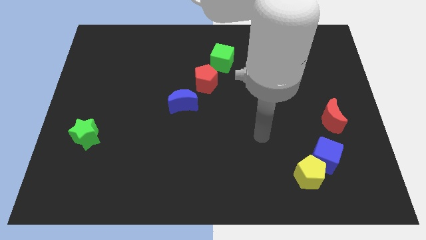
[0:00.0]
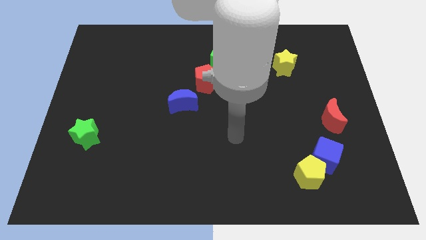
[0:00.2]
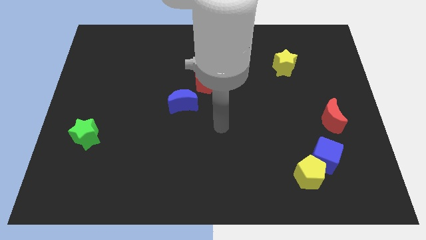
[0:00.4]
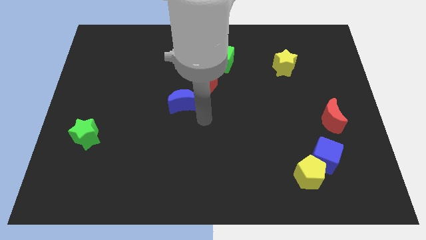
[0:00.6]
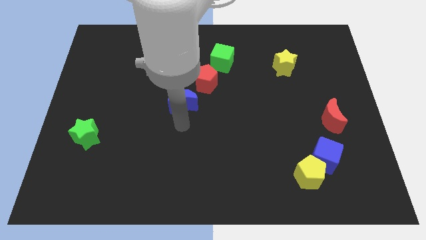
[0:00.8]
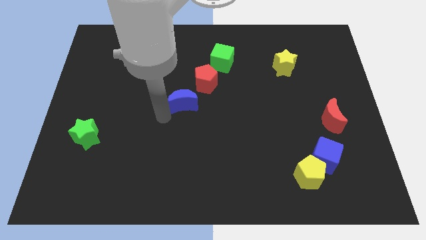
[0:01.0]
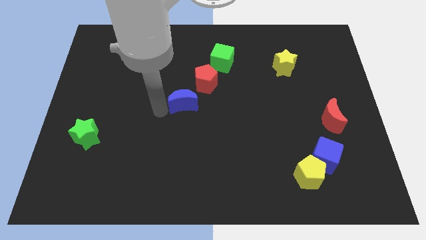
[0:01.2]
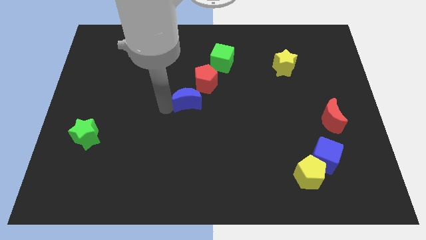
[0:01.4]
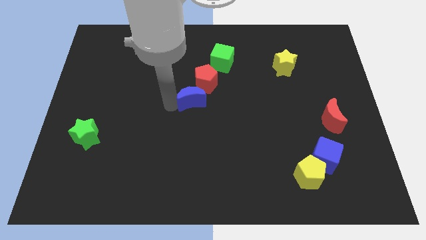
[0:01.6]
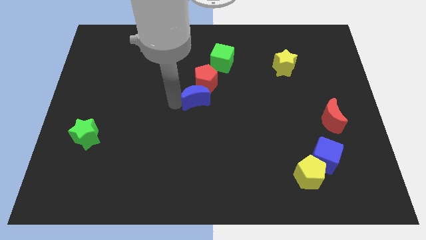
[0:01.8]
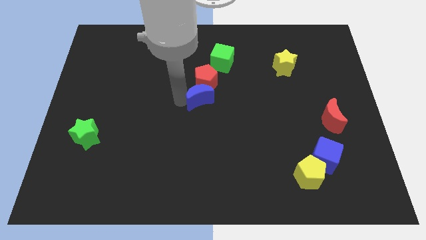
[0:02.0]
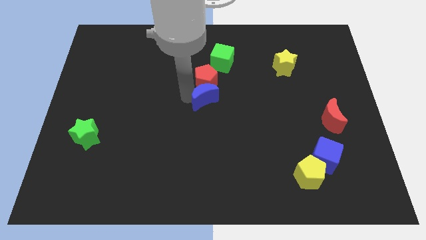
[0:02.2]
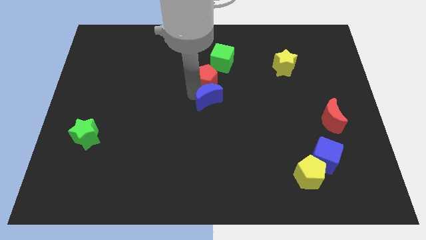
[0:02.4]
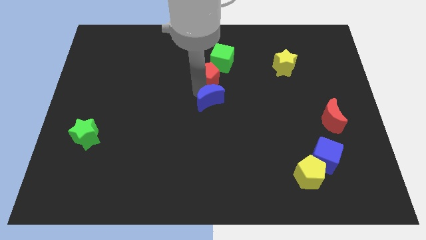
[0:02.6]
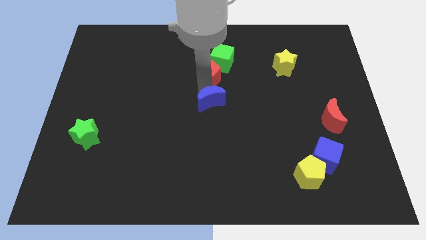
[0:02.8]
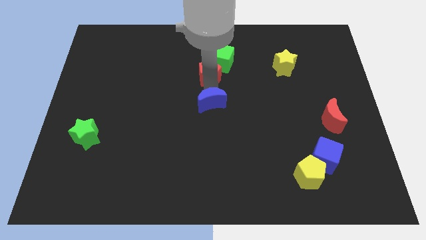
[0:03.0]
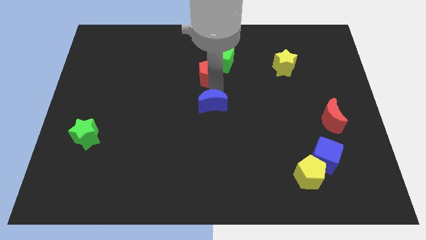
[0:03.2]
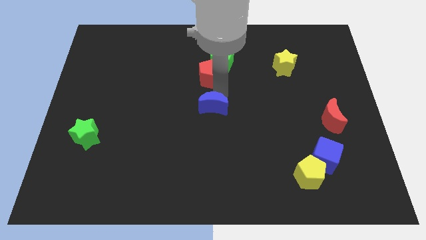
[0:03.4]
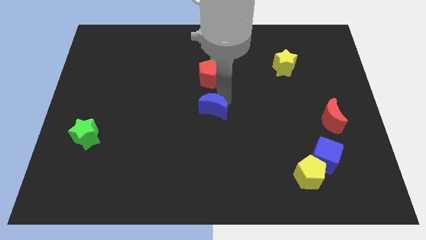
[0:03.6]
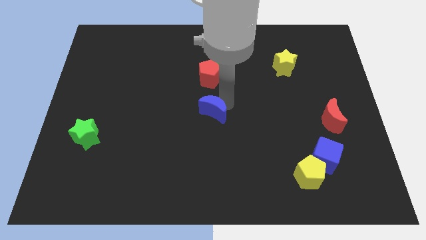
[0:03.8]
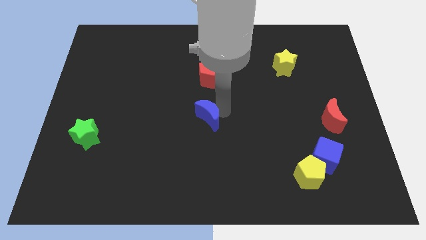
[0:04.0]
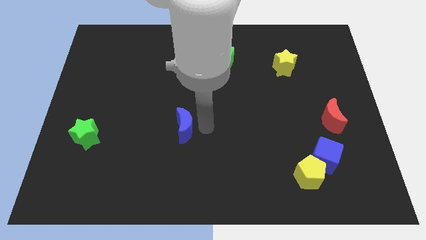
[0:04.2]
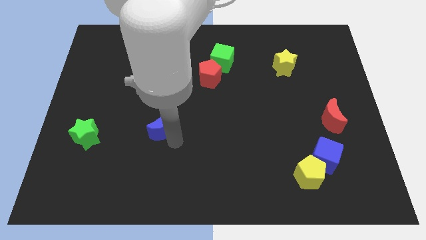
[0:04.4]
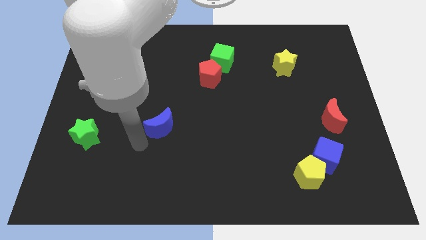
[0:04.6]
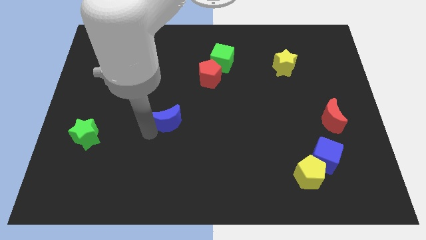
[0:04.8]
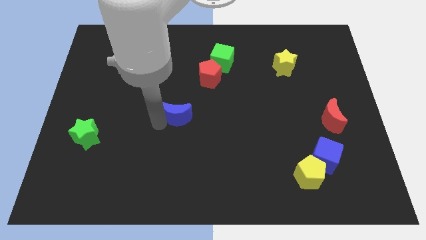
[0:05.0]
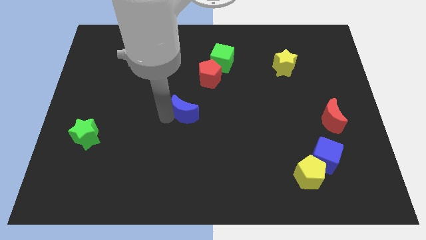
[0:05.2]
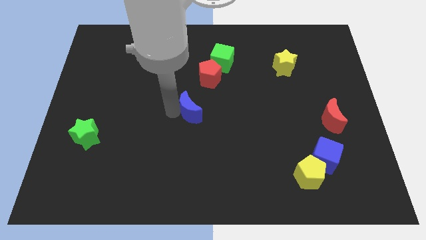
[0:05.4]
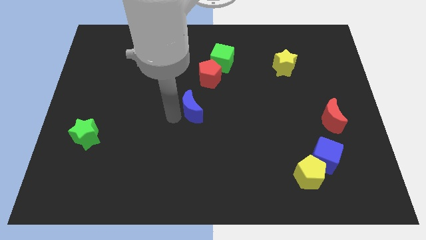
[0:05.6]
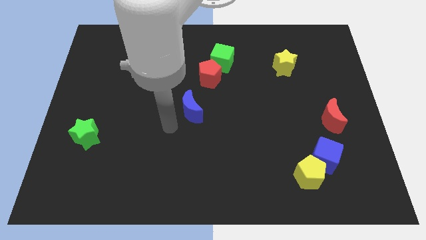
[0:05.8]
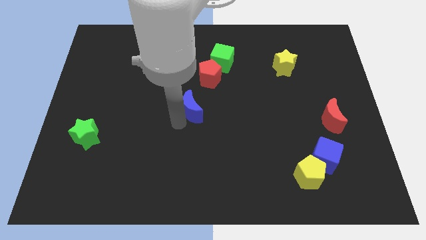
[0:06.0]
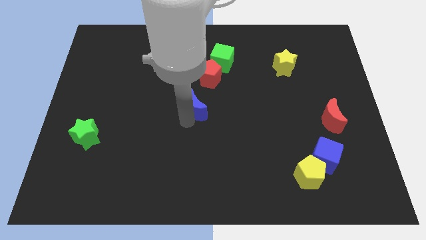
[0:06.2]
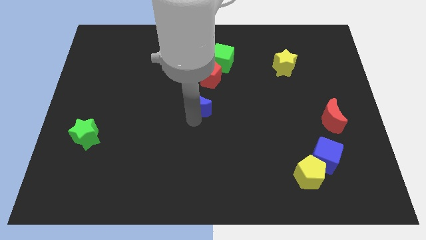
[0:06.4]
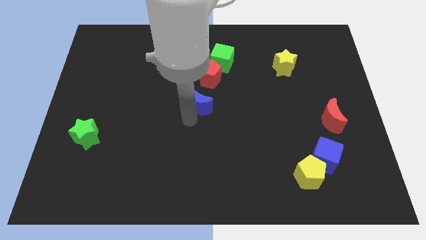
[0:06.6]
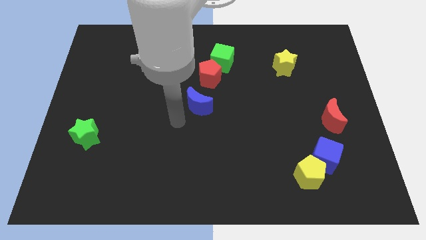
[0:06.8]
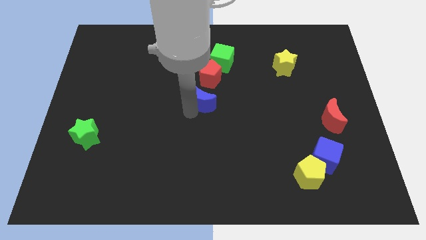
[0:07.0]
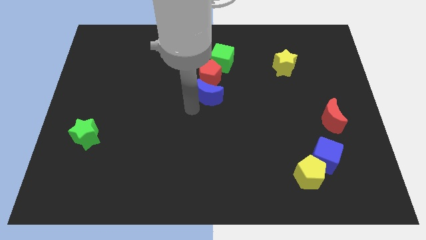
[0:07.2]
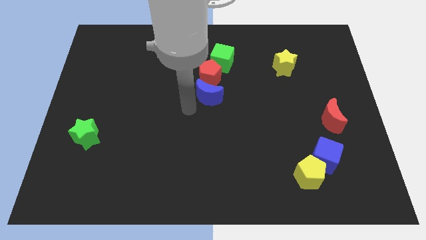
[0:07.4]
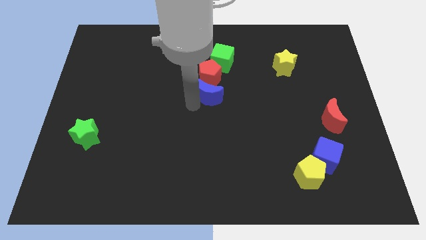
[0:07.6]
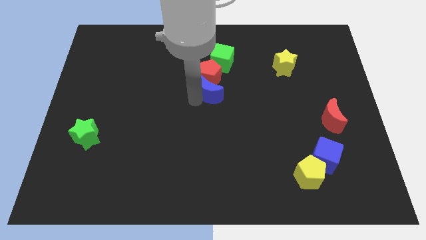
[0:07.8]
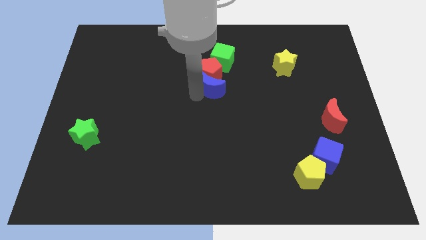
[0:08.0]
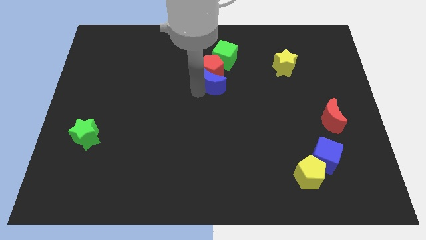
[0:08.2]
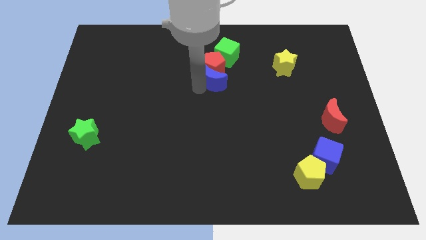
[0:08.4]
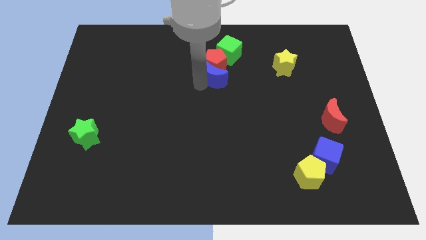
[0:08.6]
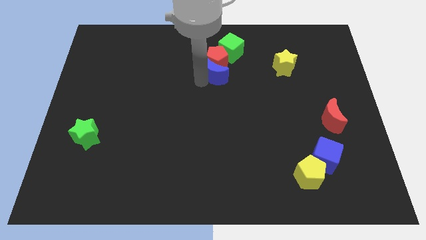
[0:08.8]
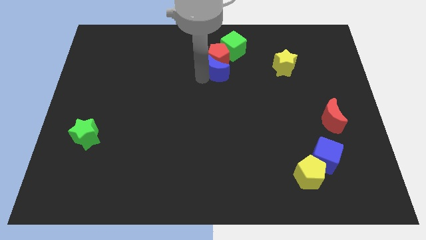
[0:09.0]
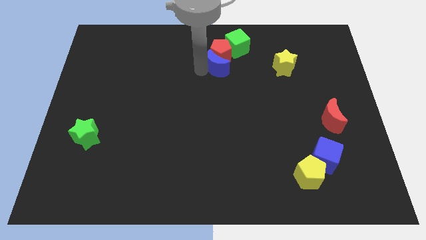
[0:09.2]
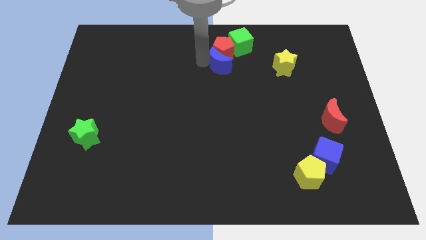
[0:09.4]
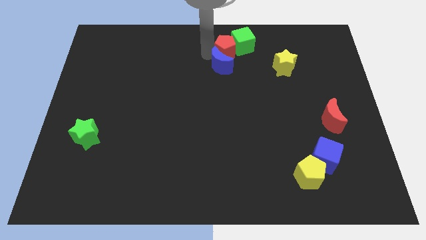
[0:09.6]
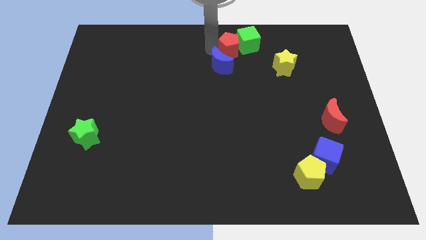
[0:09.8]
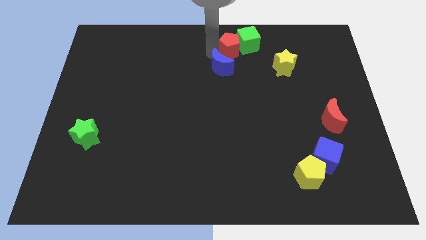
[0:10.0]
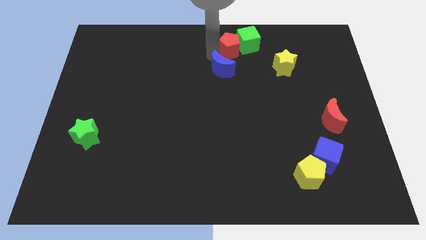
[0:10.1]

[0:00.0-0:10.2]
push the blue moon to the left side of the yellow star

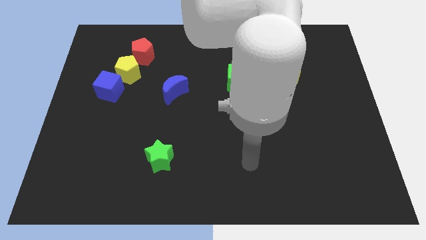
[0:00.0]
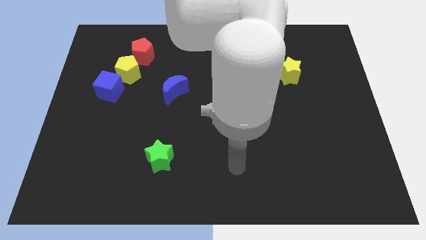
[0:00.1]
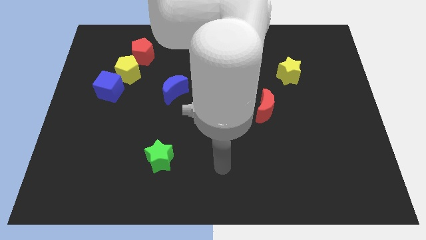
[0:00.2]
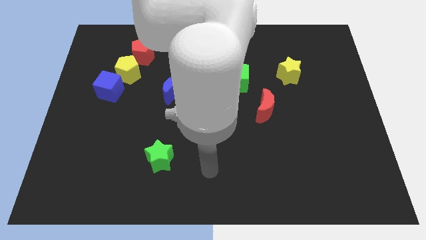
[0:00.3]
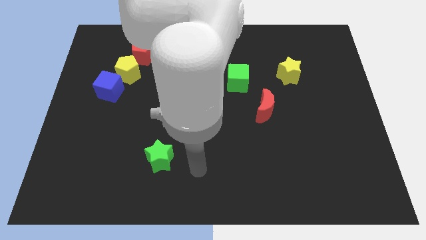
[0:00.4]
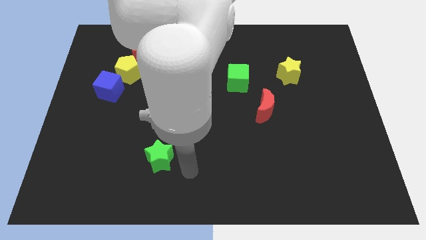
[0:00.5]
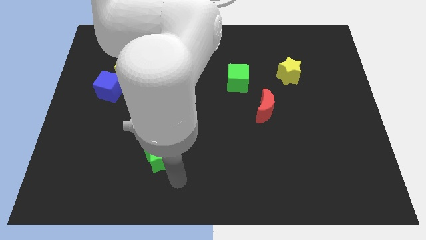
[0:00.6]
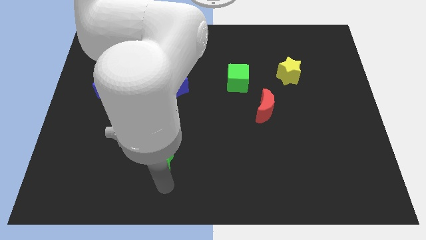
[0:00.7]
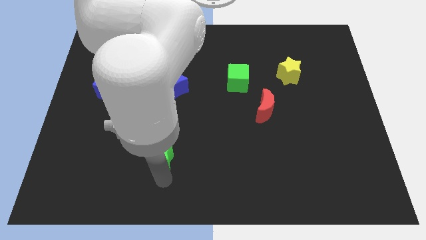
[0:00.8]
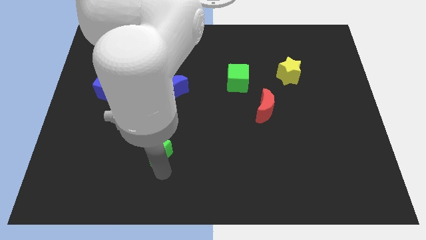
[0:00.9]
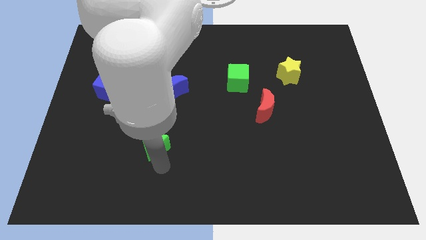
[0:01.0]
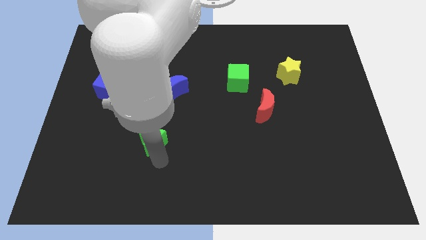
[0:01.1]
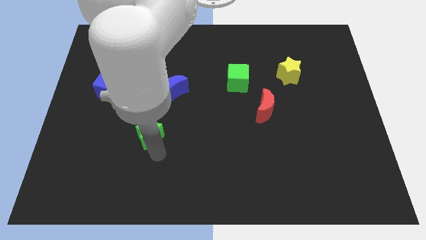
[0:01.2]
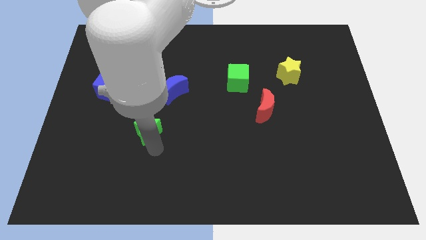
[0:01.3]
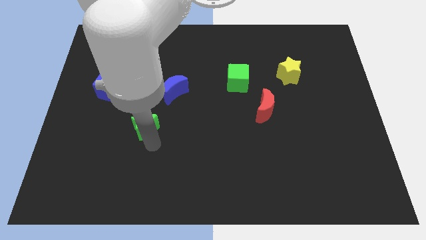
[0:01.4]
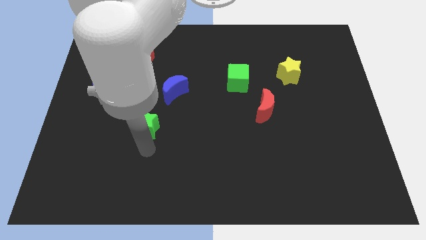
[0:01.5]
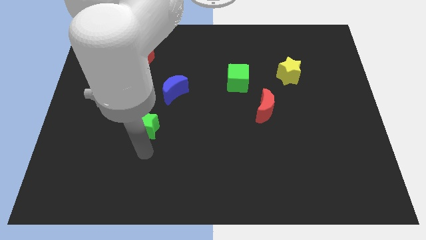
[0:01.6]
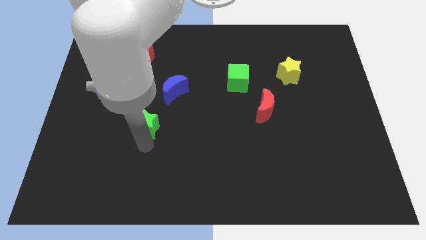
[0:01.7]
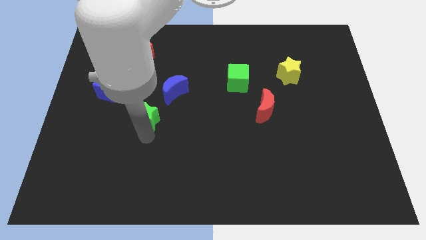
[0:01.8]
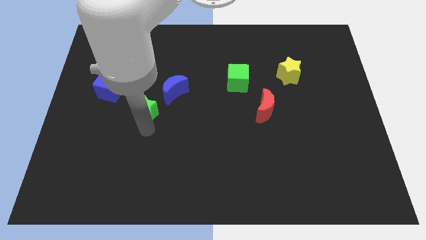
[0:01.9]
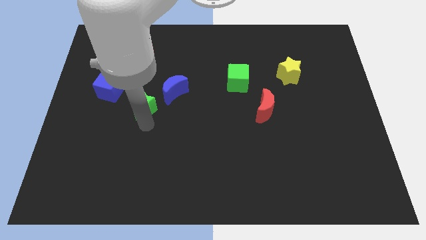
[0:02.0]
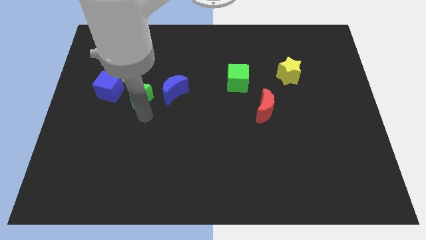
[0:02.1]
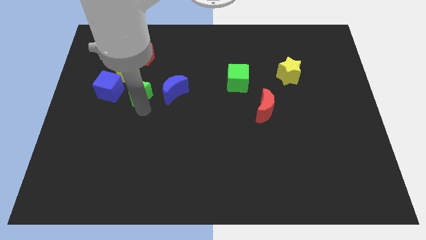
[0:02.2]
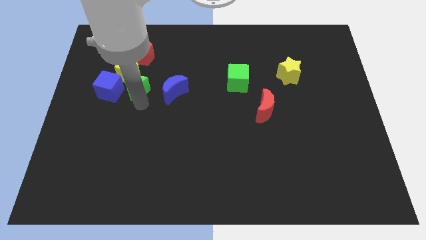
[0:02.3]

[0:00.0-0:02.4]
put the green star to the top right side of the blue cube
